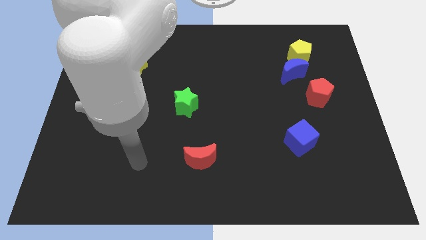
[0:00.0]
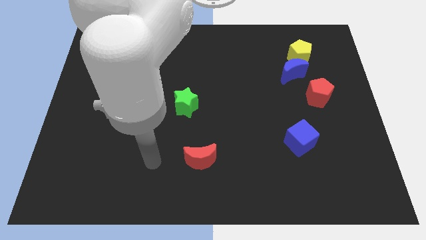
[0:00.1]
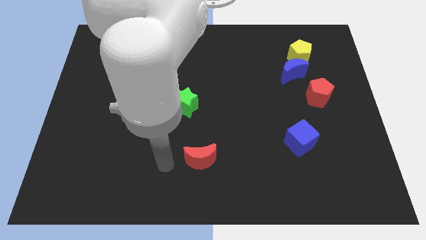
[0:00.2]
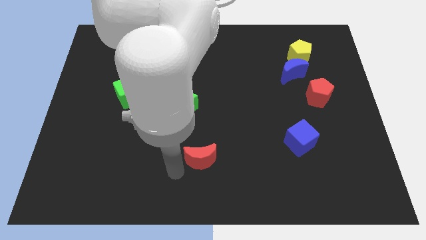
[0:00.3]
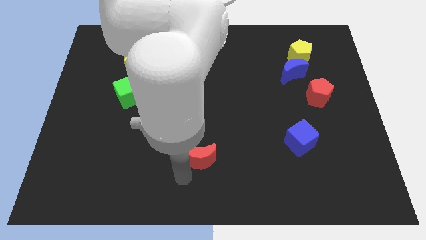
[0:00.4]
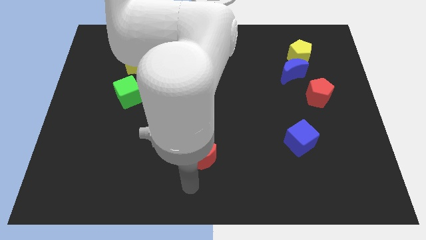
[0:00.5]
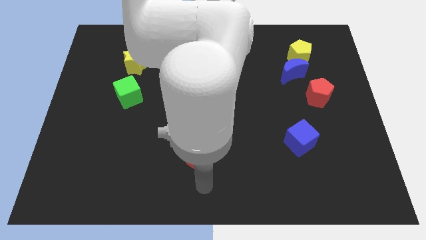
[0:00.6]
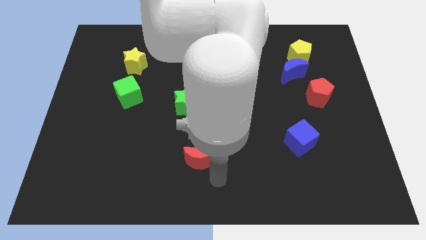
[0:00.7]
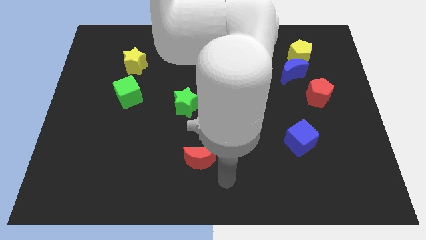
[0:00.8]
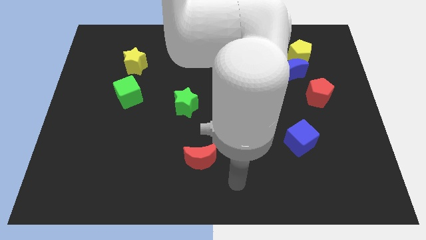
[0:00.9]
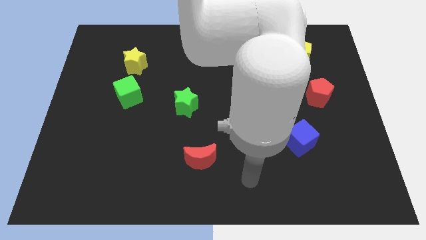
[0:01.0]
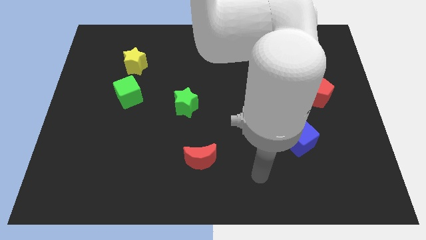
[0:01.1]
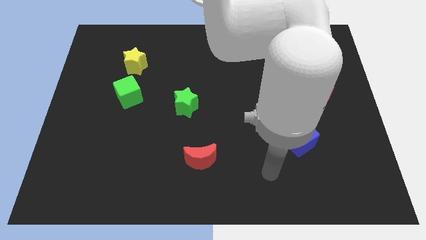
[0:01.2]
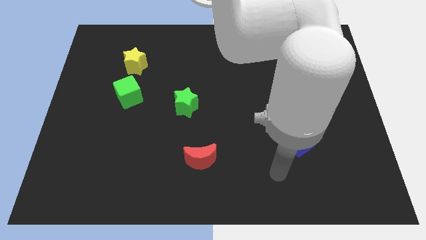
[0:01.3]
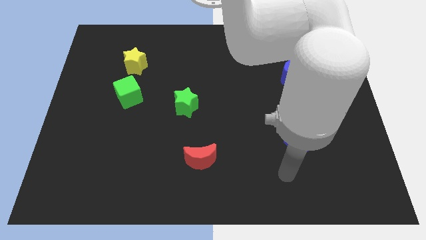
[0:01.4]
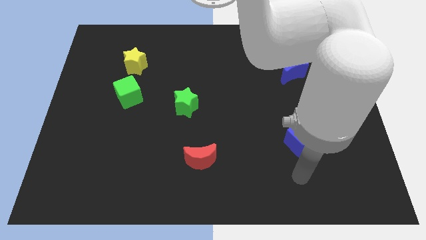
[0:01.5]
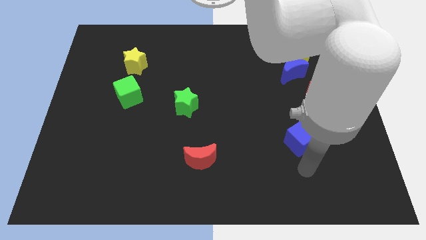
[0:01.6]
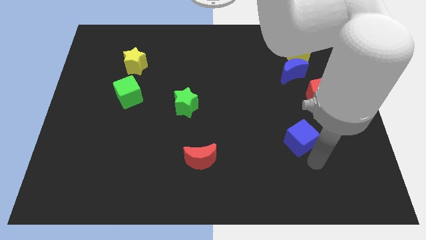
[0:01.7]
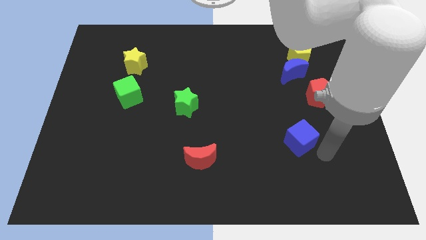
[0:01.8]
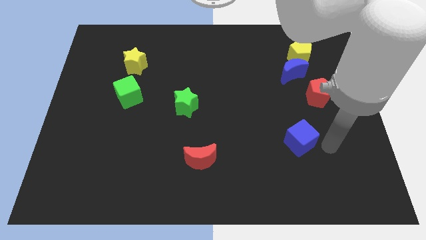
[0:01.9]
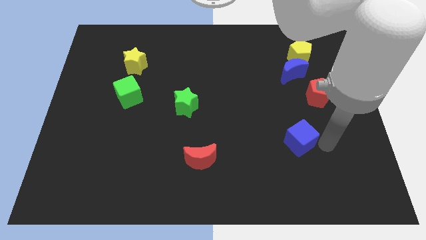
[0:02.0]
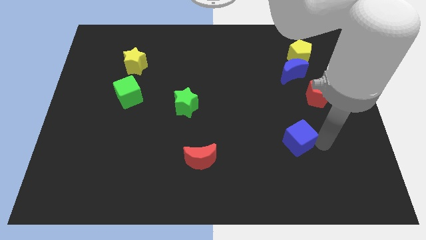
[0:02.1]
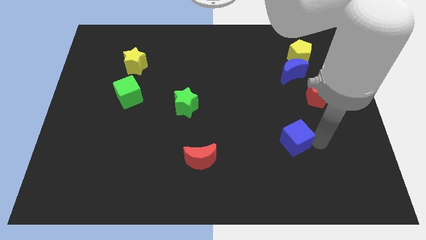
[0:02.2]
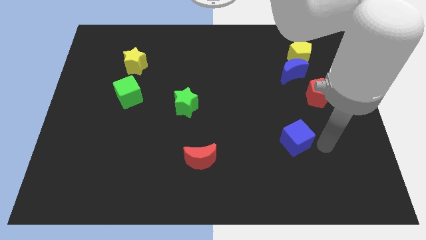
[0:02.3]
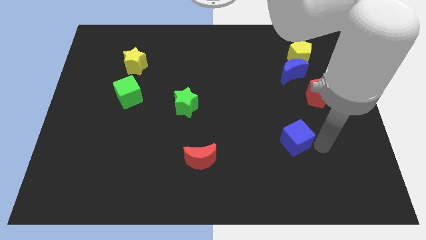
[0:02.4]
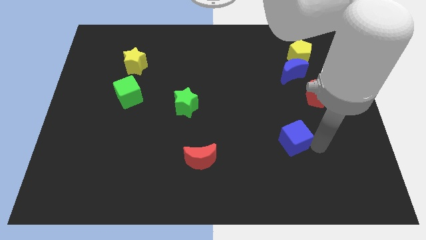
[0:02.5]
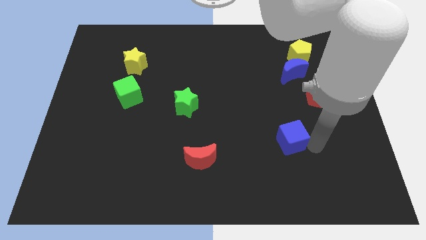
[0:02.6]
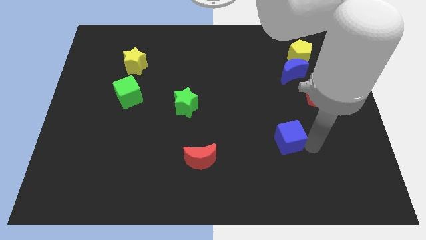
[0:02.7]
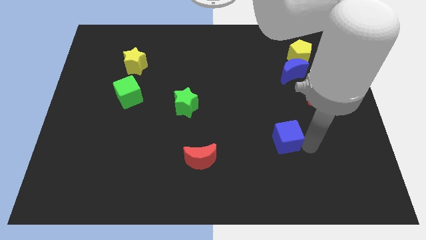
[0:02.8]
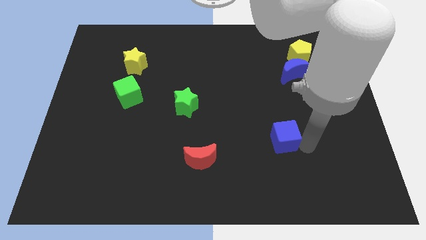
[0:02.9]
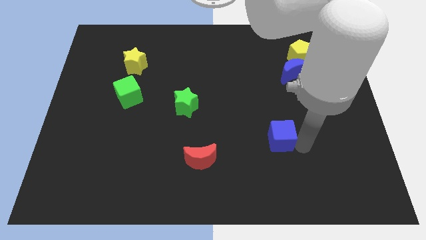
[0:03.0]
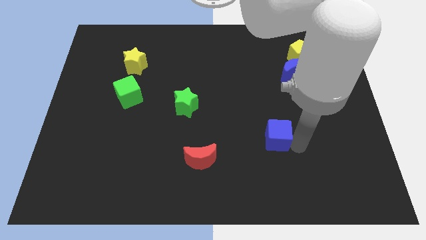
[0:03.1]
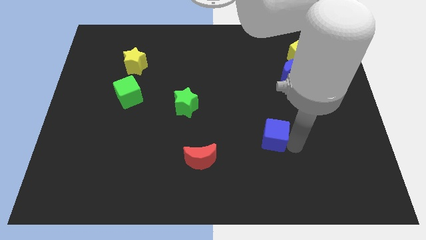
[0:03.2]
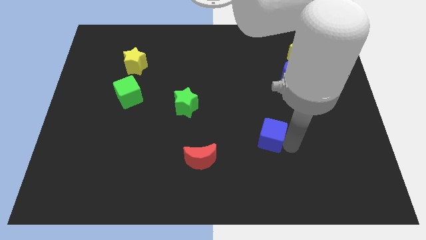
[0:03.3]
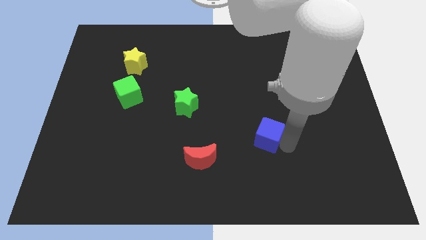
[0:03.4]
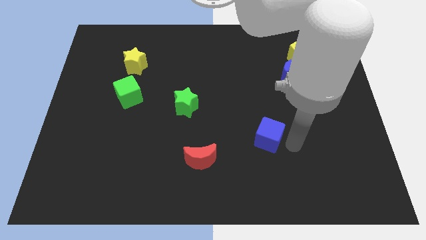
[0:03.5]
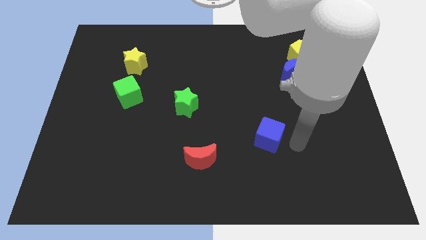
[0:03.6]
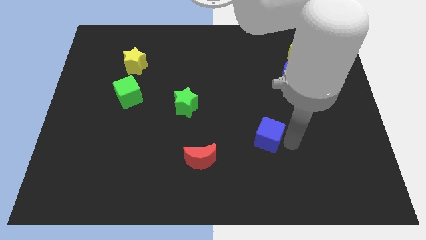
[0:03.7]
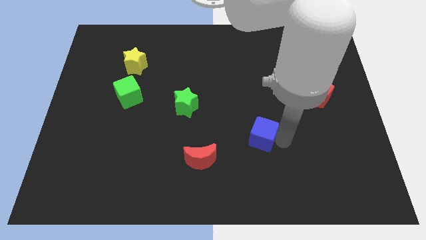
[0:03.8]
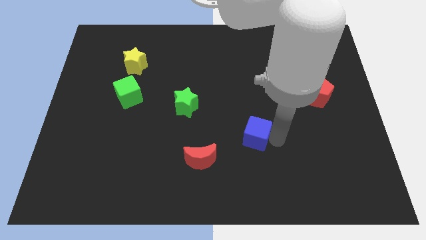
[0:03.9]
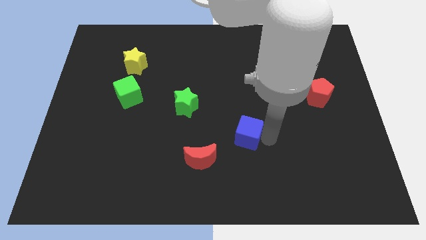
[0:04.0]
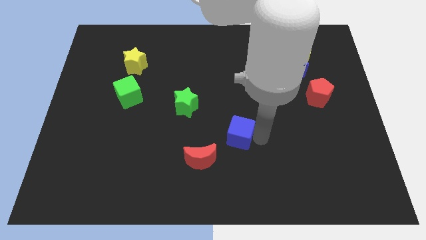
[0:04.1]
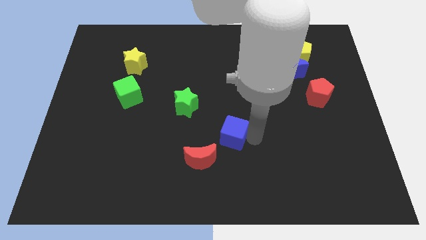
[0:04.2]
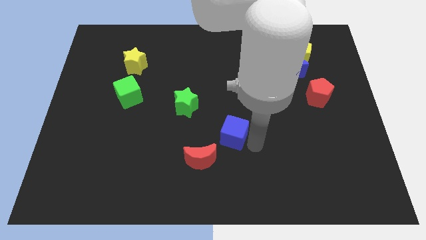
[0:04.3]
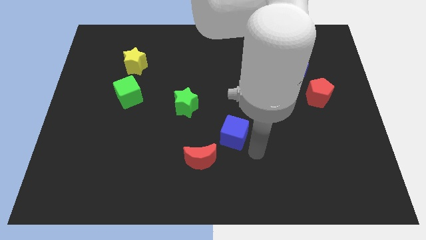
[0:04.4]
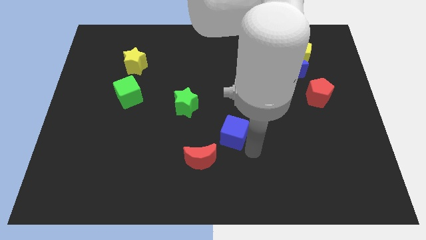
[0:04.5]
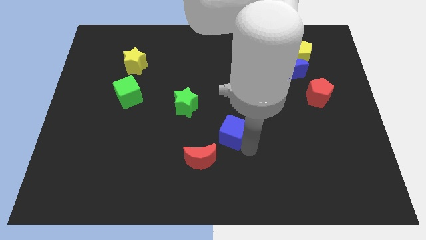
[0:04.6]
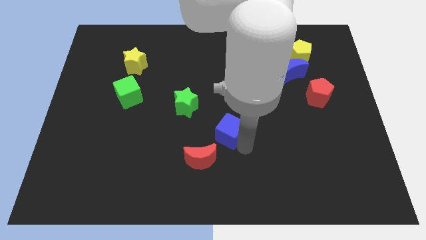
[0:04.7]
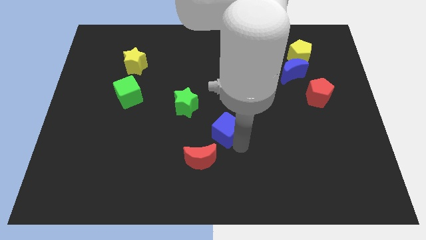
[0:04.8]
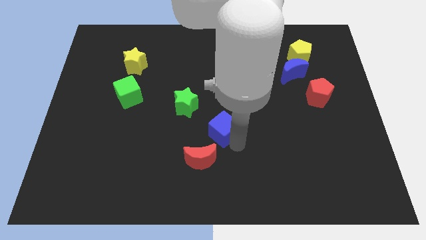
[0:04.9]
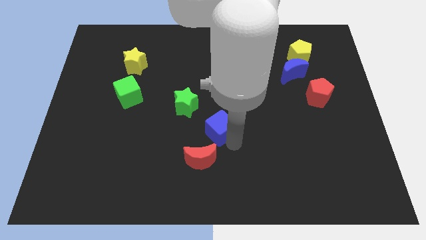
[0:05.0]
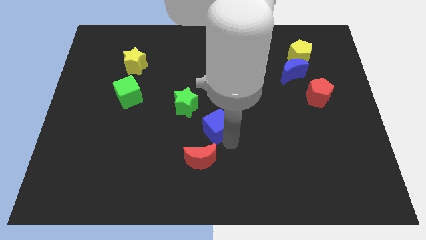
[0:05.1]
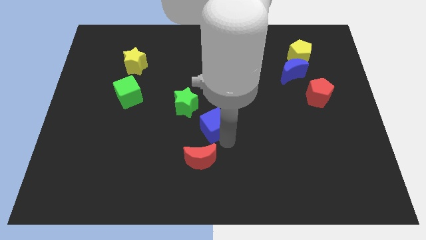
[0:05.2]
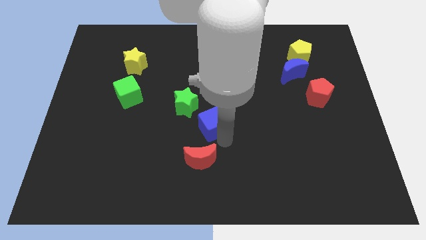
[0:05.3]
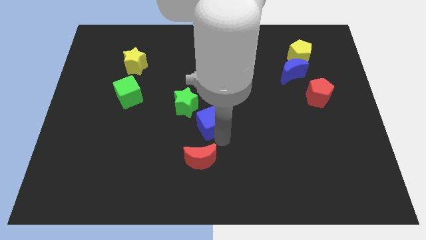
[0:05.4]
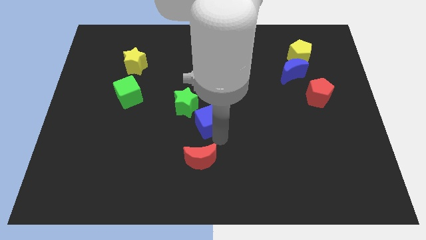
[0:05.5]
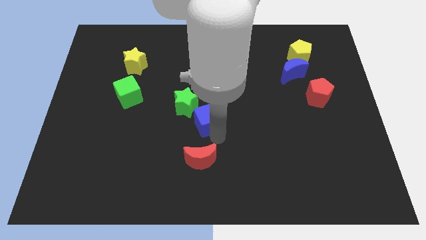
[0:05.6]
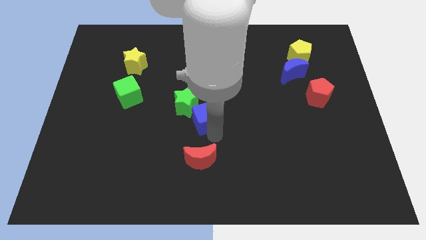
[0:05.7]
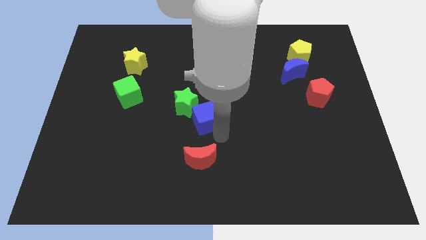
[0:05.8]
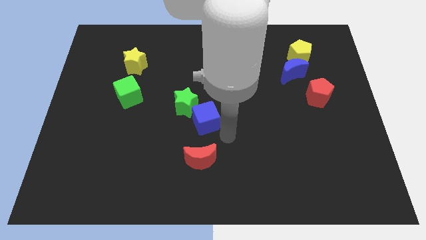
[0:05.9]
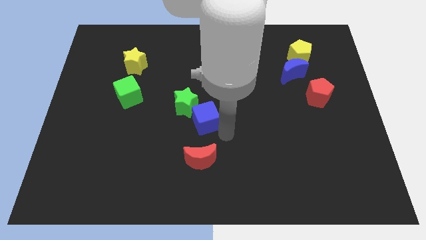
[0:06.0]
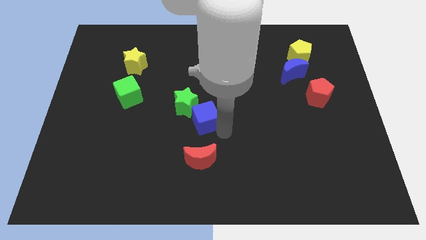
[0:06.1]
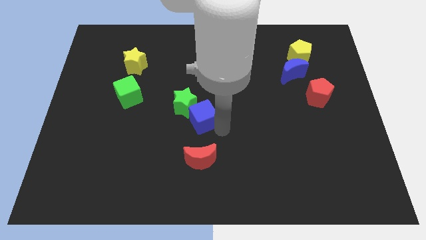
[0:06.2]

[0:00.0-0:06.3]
put the blue cube towards the green star

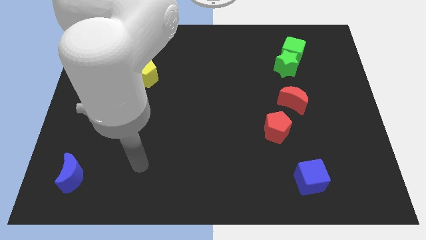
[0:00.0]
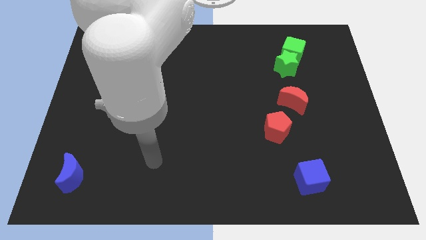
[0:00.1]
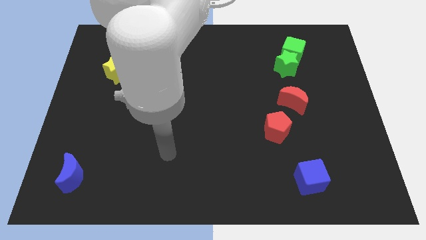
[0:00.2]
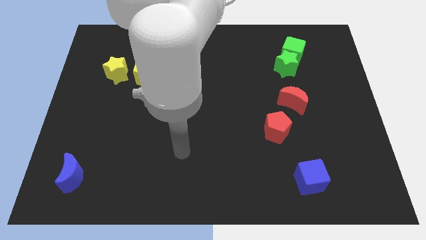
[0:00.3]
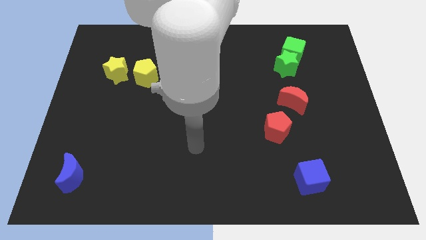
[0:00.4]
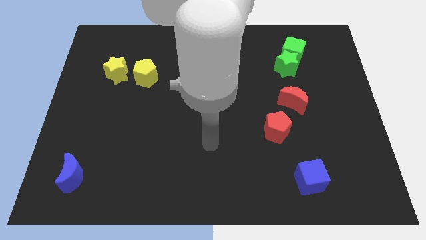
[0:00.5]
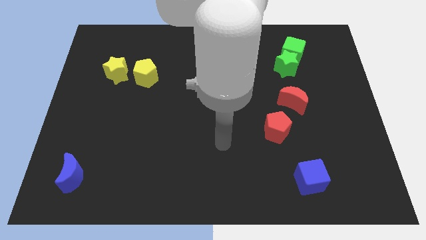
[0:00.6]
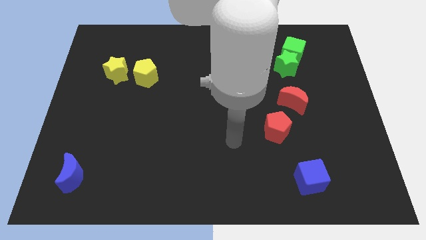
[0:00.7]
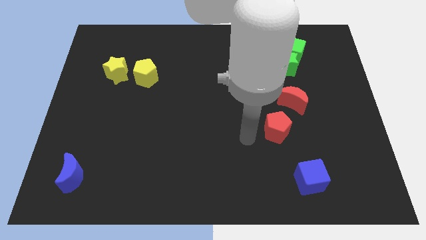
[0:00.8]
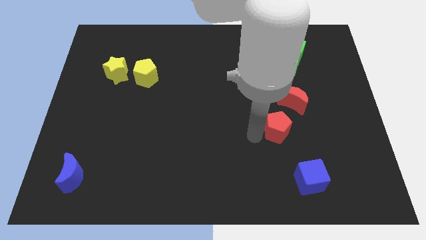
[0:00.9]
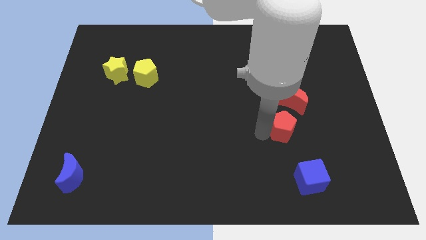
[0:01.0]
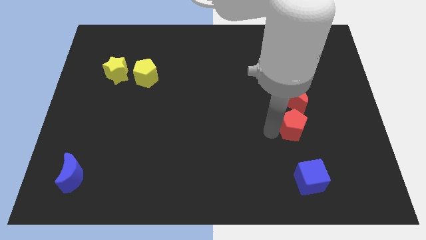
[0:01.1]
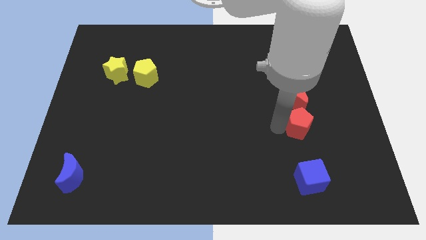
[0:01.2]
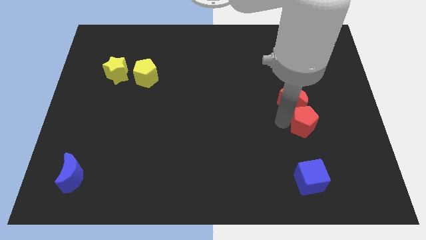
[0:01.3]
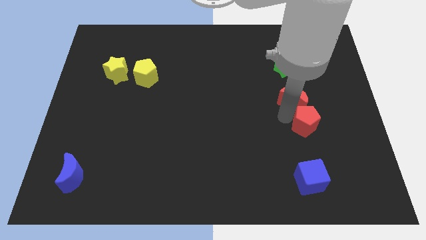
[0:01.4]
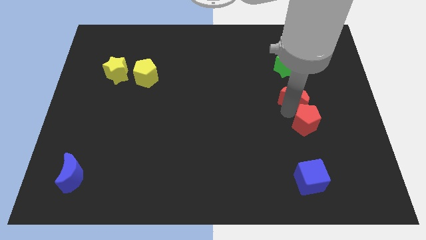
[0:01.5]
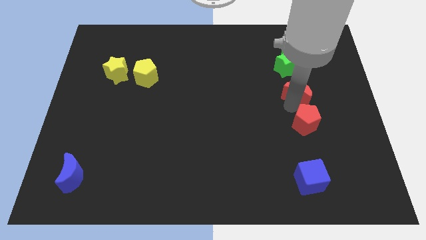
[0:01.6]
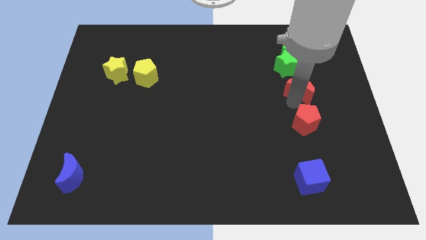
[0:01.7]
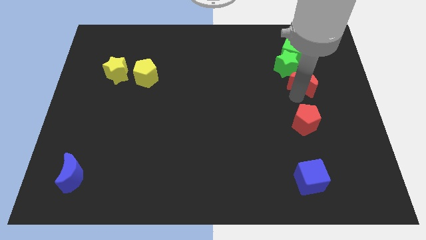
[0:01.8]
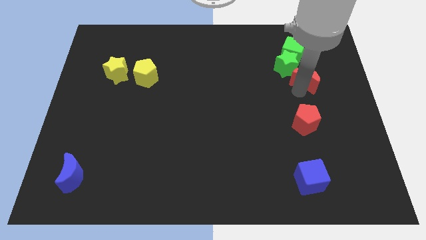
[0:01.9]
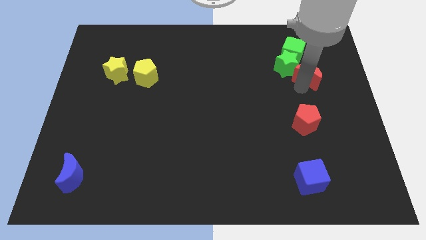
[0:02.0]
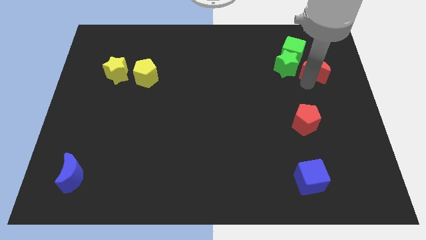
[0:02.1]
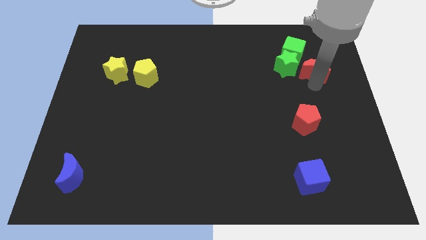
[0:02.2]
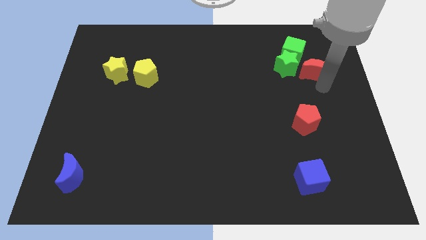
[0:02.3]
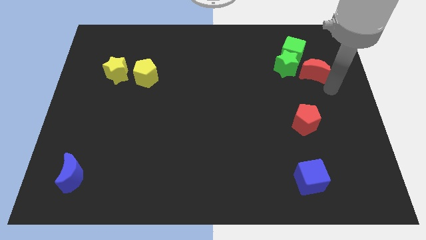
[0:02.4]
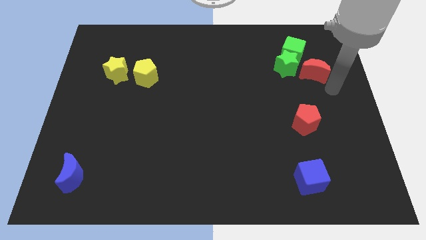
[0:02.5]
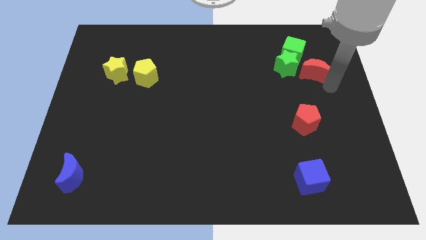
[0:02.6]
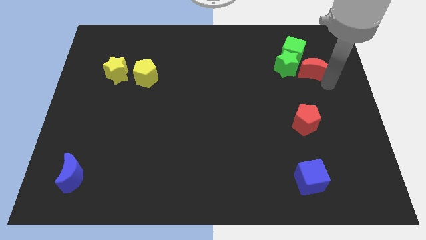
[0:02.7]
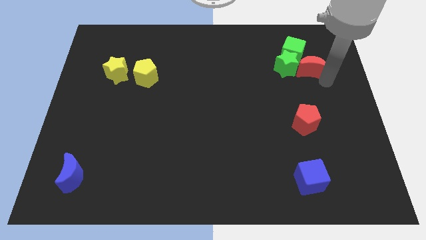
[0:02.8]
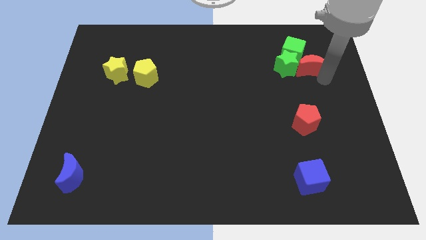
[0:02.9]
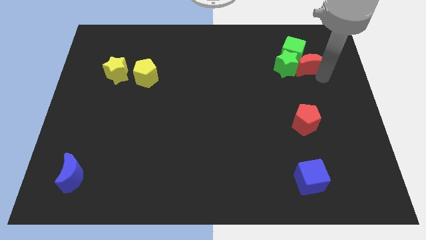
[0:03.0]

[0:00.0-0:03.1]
put the red moon close to the green cube
